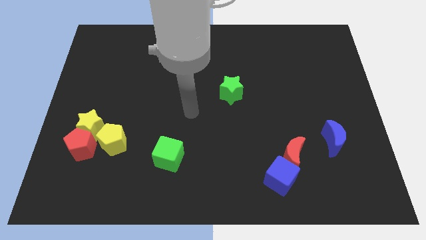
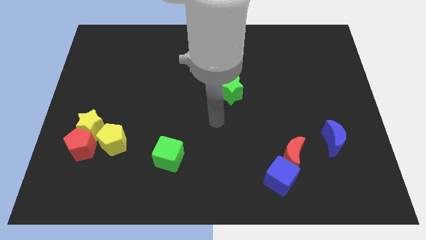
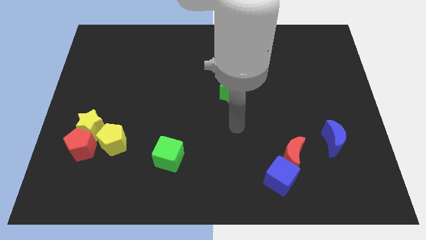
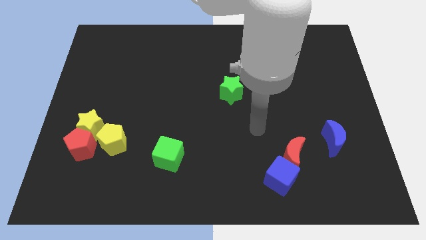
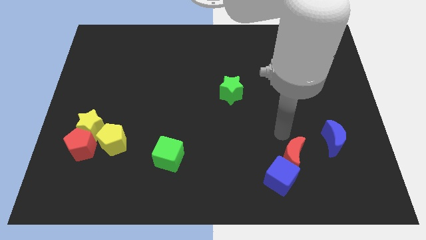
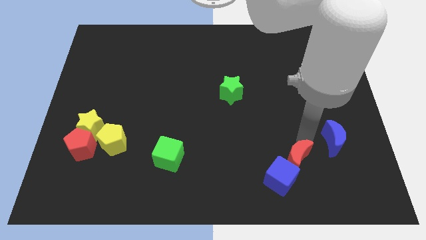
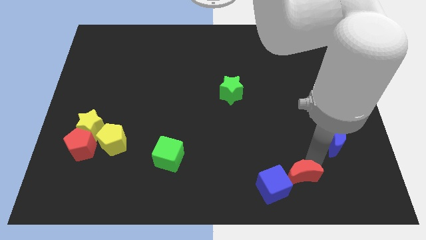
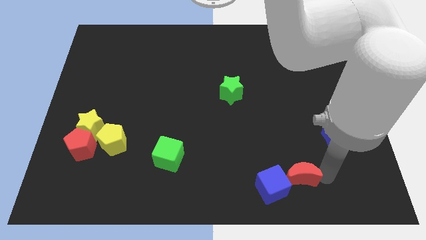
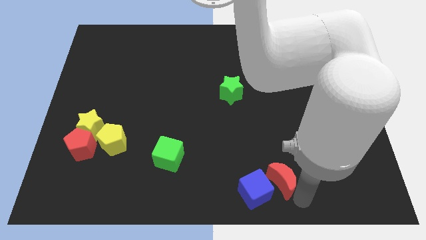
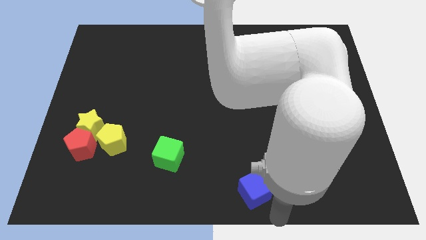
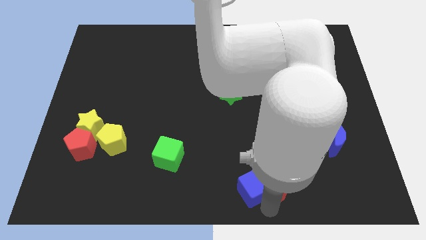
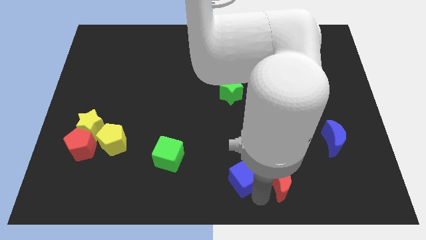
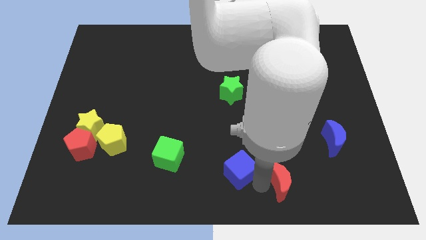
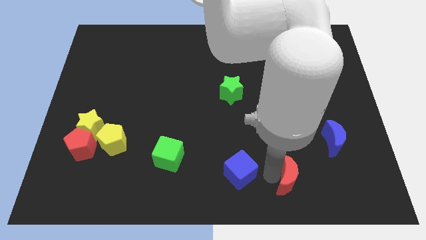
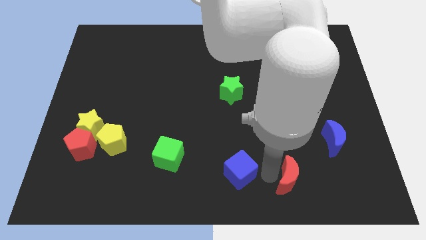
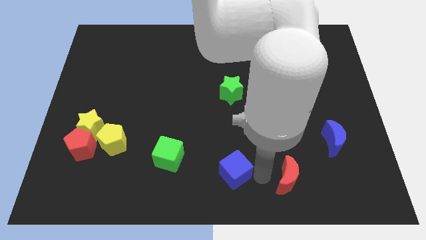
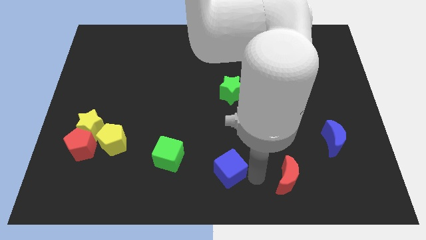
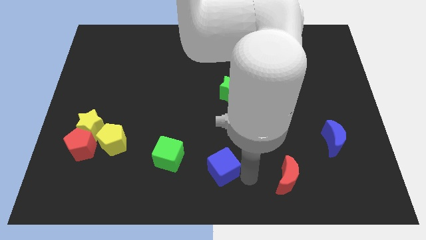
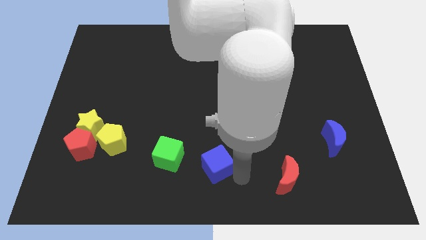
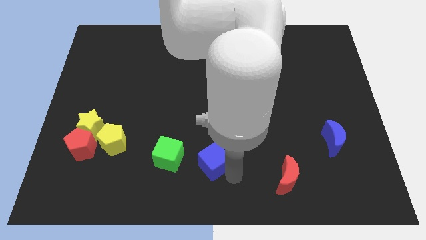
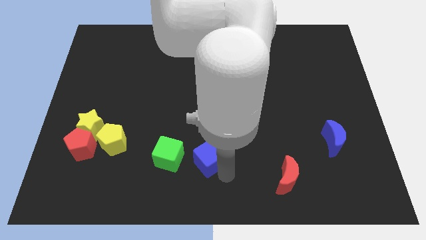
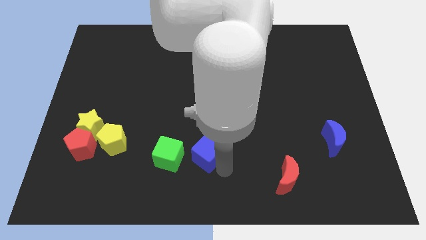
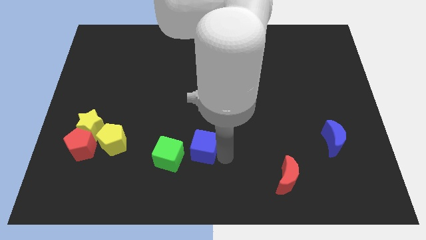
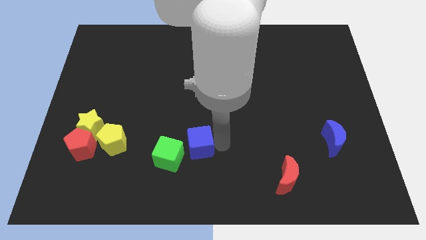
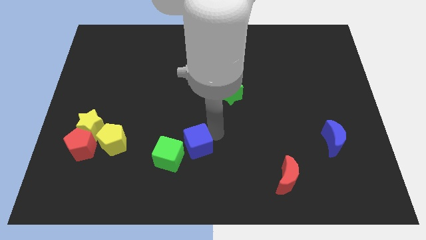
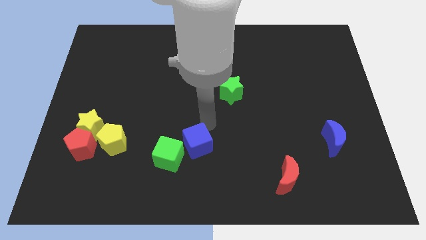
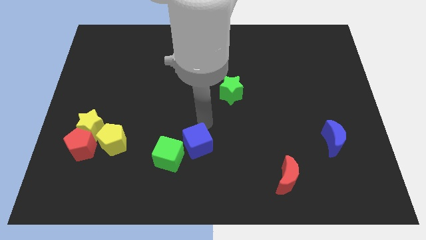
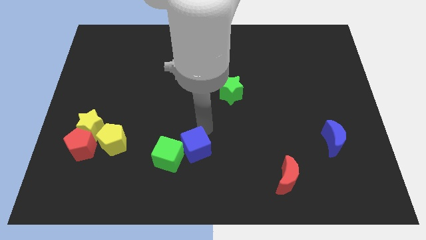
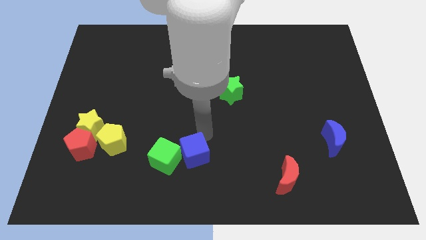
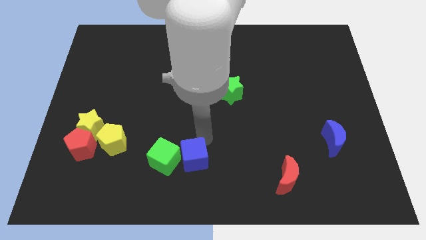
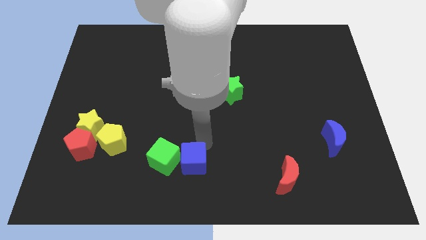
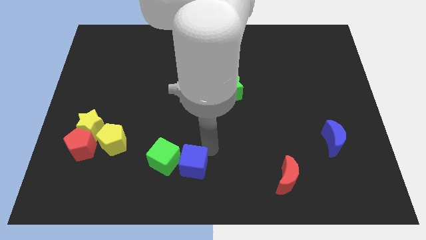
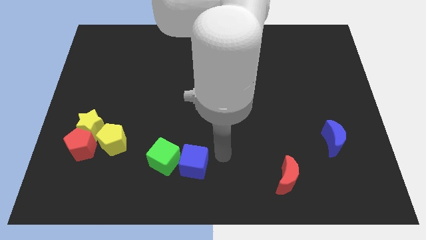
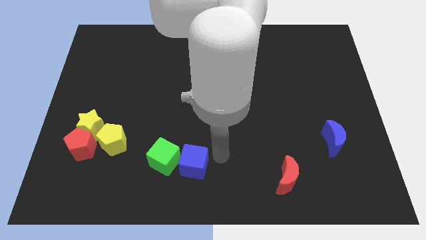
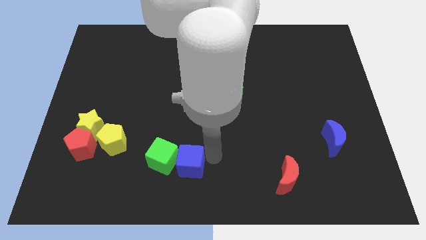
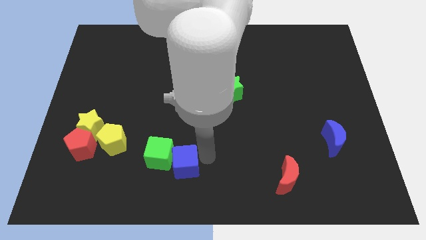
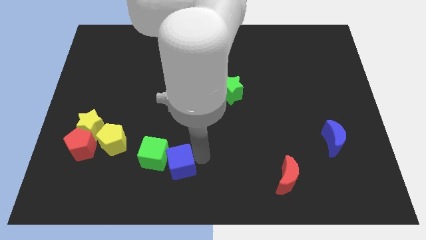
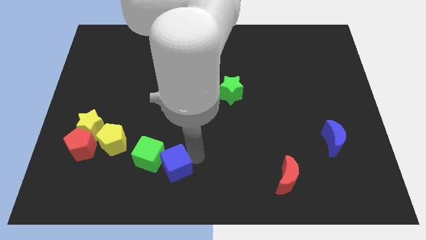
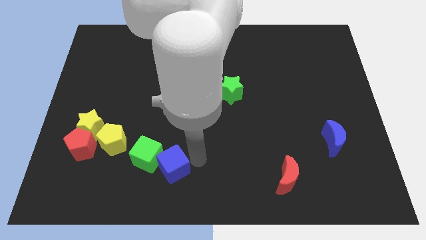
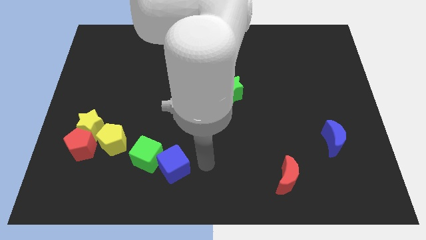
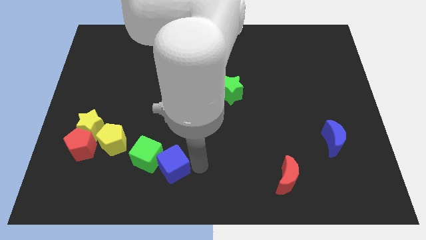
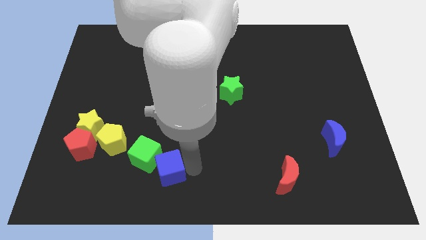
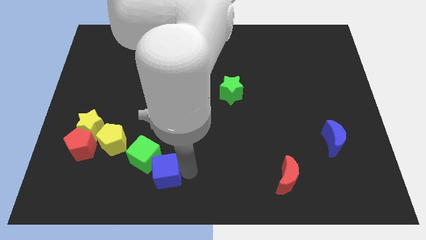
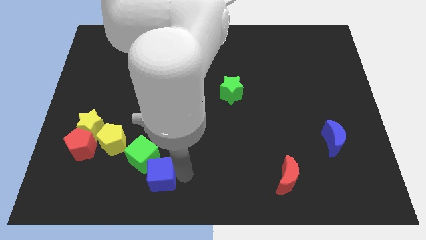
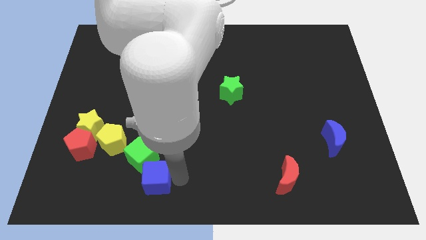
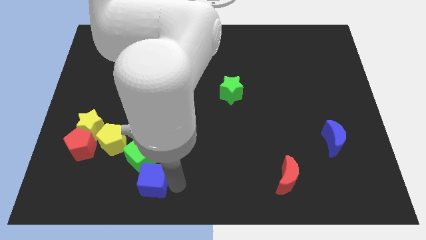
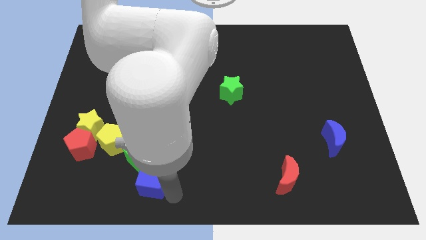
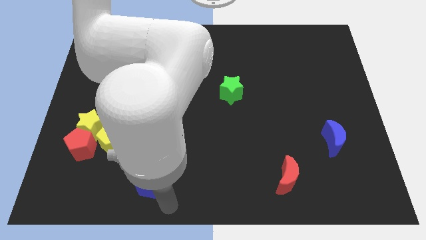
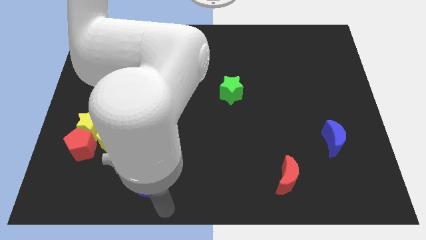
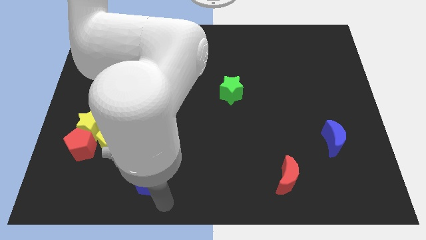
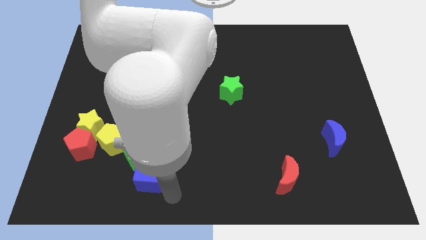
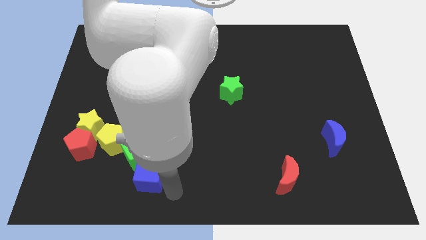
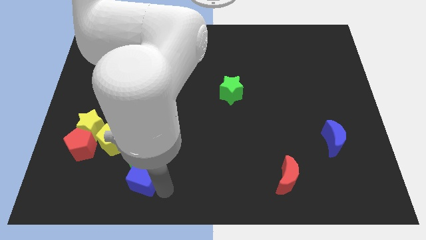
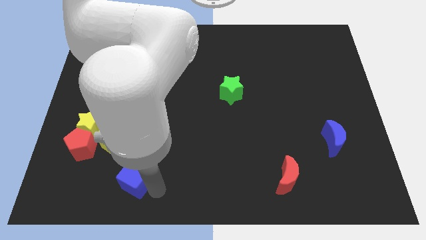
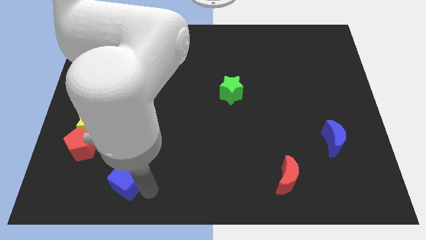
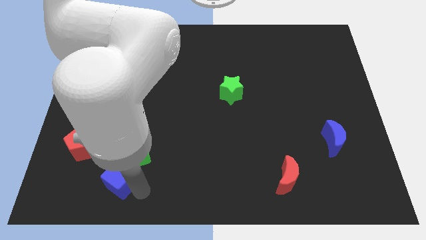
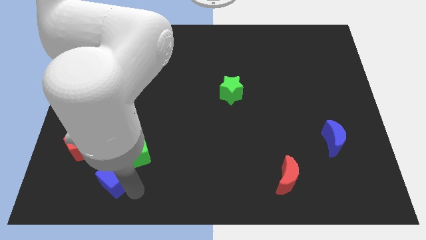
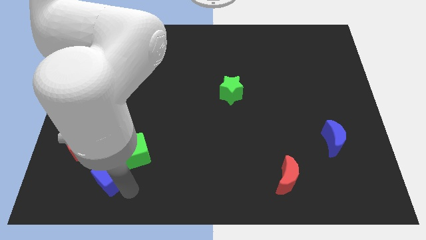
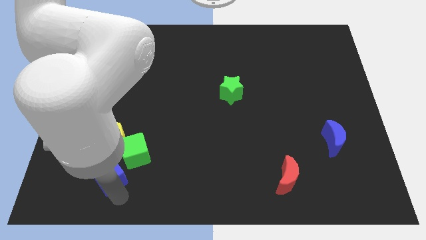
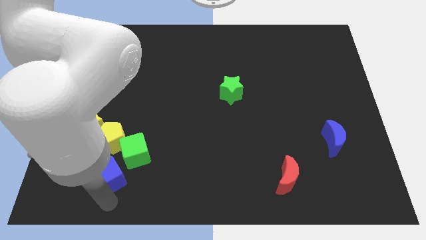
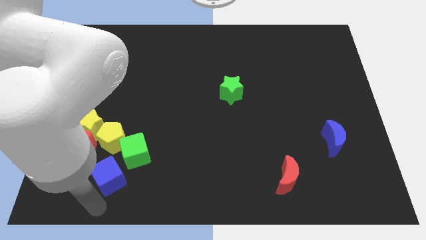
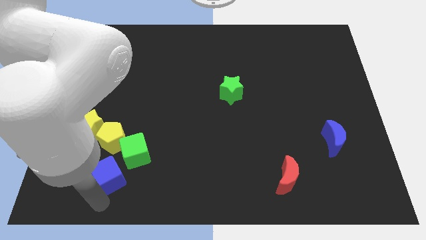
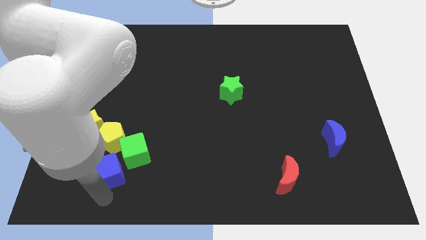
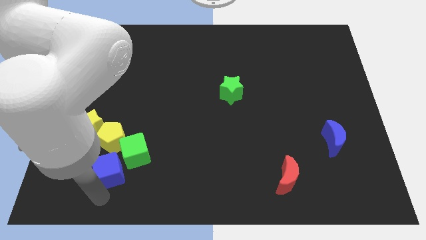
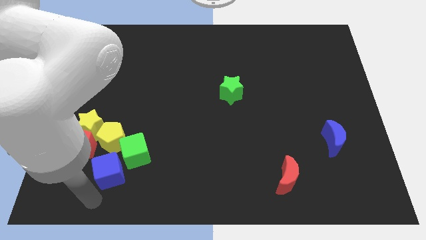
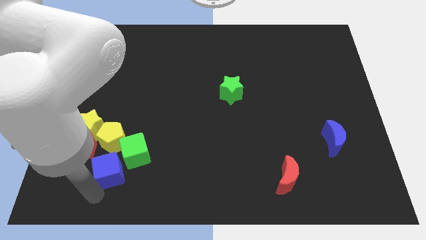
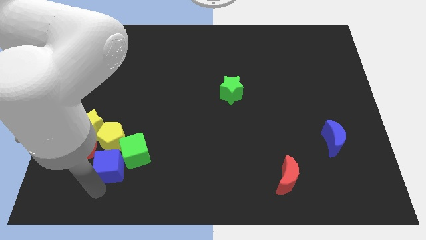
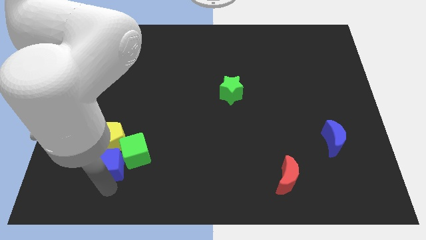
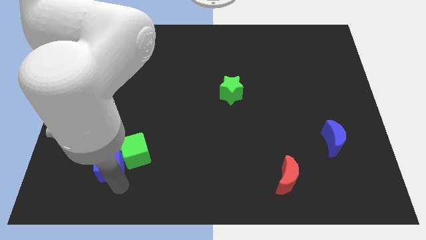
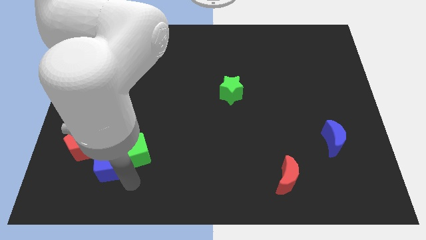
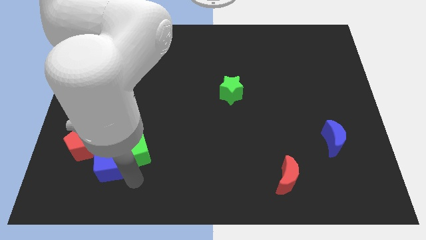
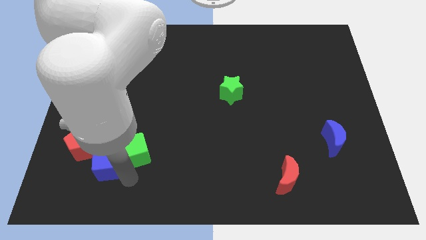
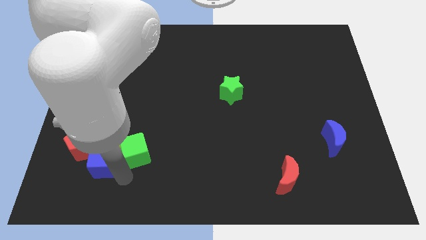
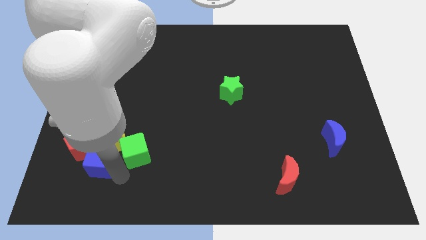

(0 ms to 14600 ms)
slide the blue cube towards the red pentagon
